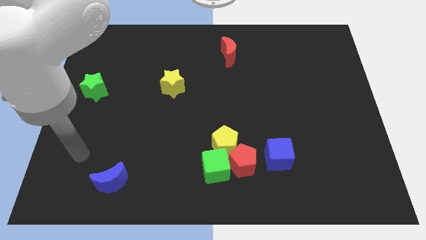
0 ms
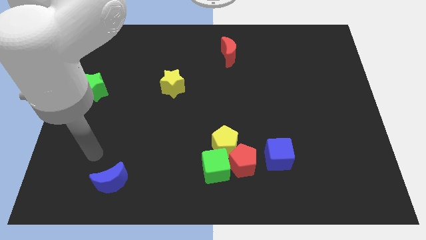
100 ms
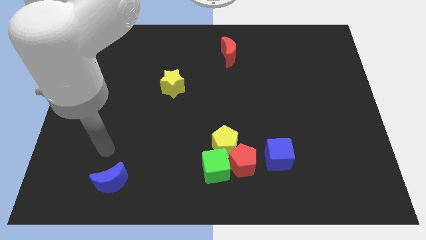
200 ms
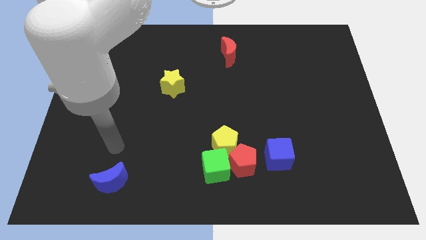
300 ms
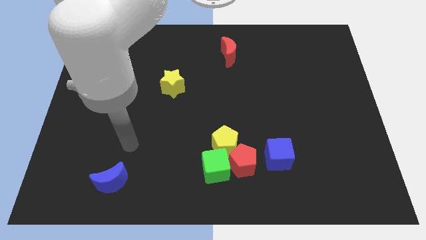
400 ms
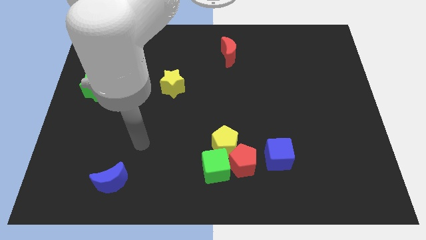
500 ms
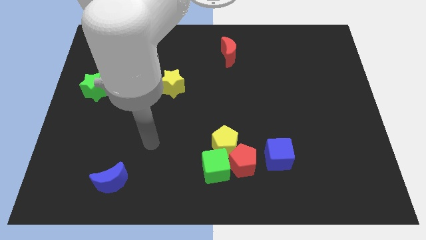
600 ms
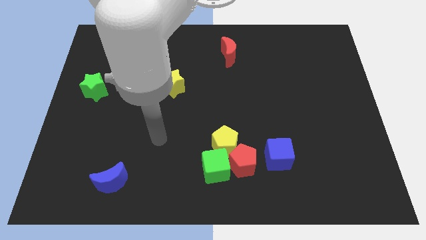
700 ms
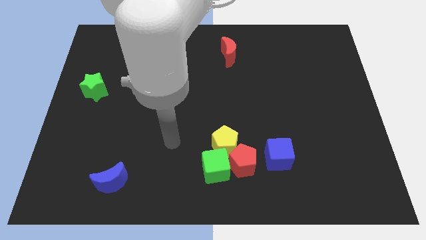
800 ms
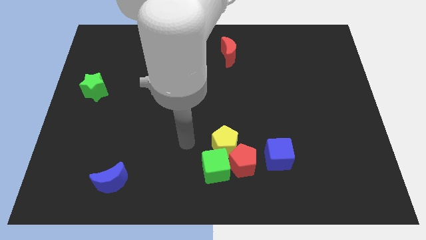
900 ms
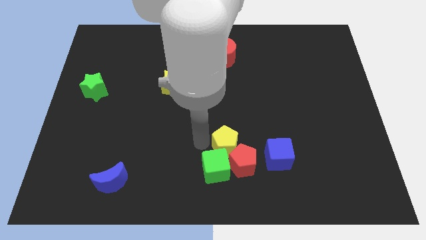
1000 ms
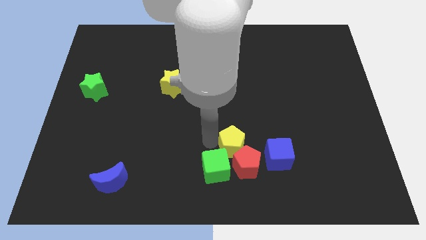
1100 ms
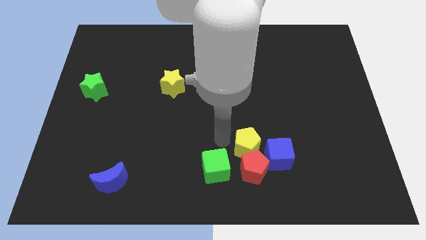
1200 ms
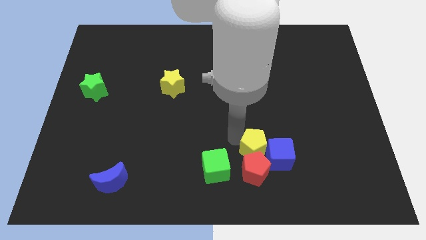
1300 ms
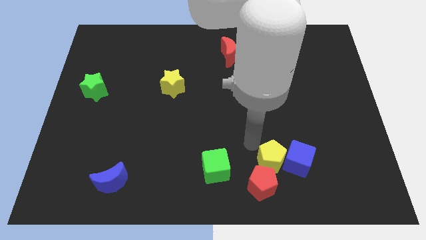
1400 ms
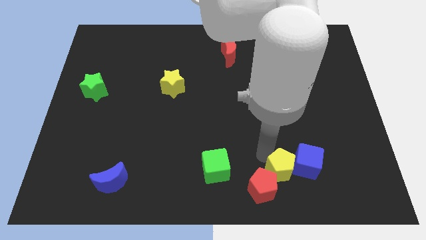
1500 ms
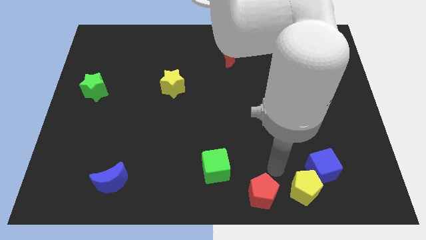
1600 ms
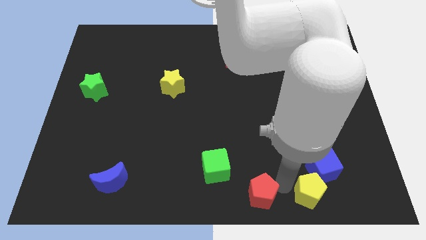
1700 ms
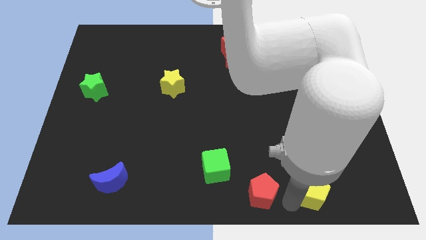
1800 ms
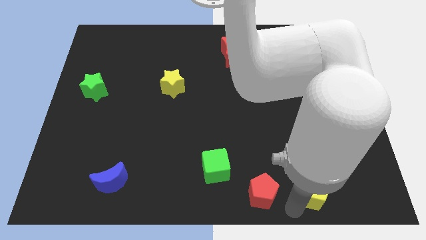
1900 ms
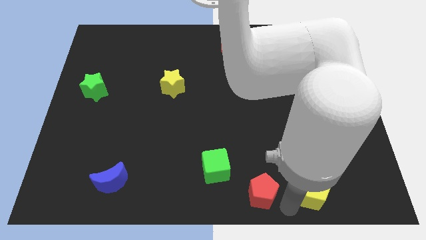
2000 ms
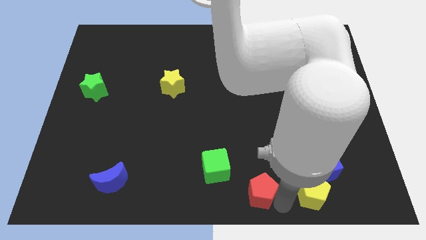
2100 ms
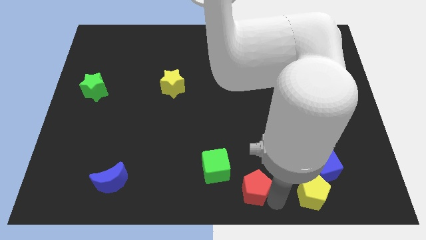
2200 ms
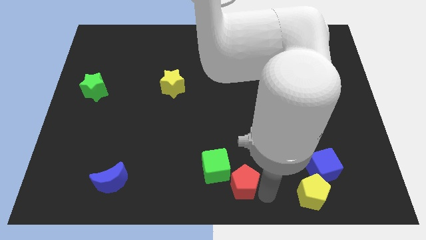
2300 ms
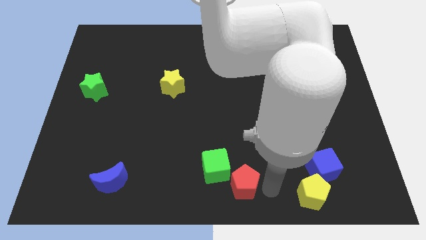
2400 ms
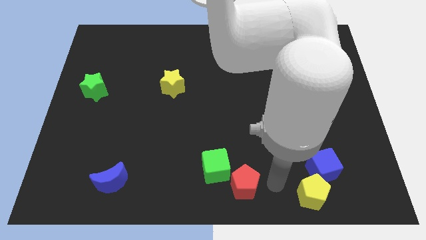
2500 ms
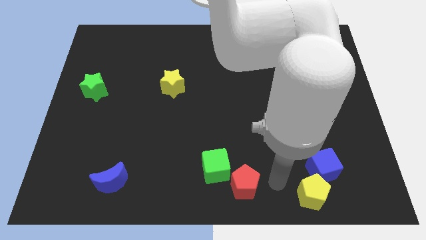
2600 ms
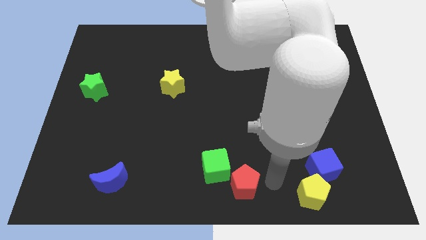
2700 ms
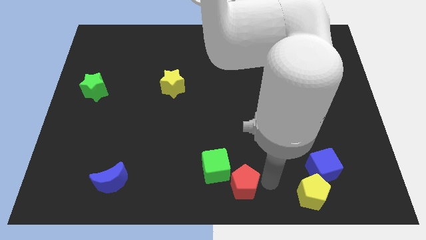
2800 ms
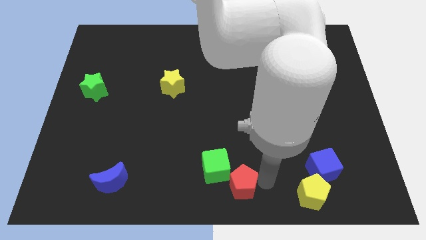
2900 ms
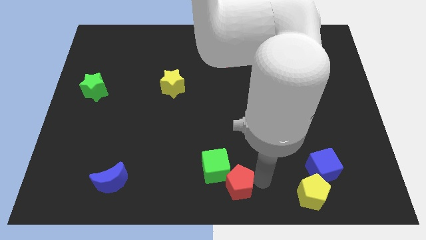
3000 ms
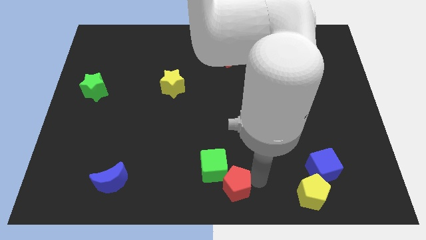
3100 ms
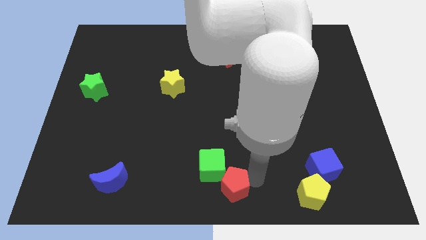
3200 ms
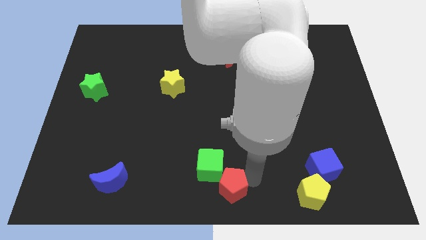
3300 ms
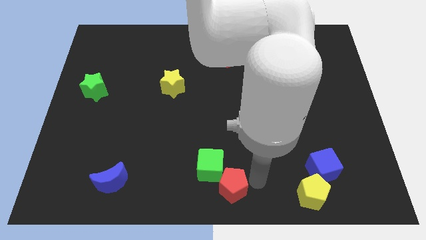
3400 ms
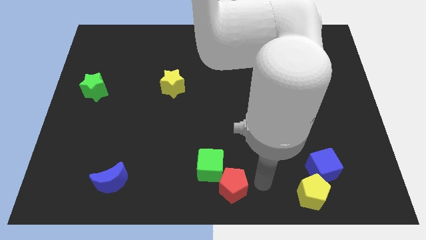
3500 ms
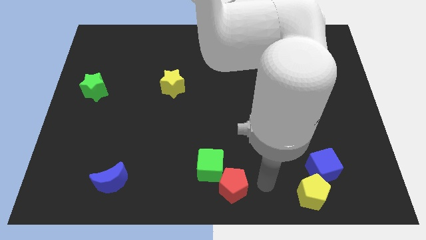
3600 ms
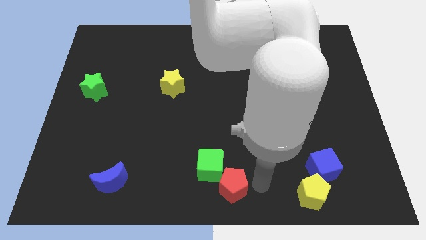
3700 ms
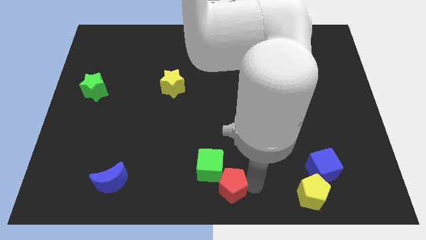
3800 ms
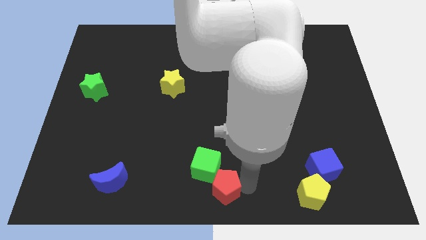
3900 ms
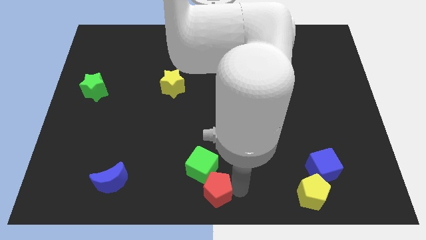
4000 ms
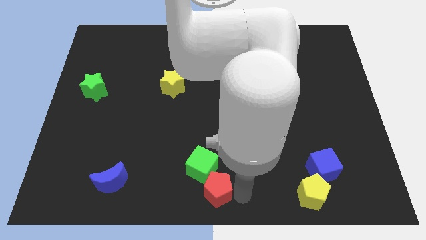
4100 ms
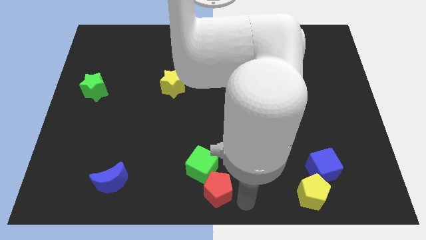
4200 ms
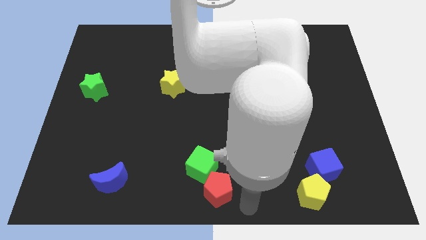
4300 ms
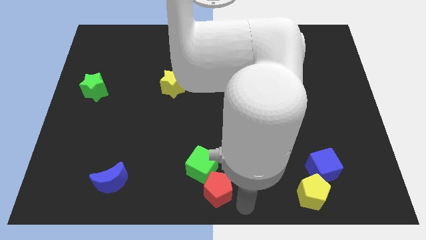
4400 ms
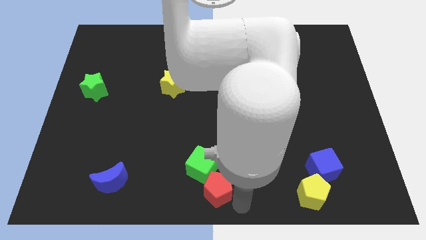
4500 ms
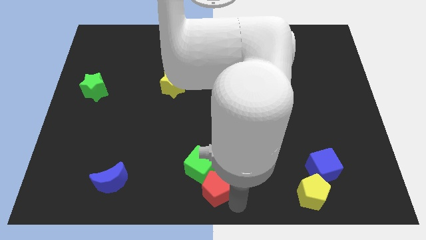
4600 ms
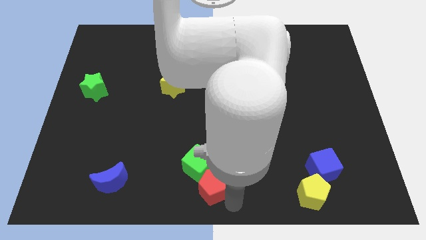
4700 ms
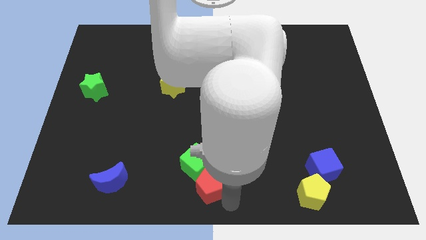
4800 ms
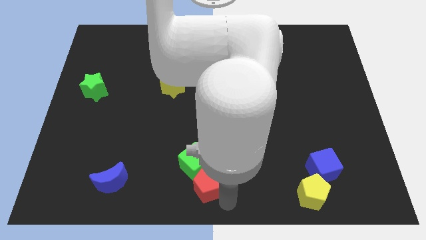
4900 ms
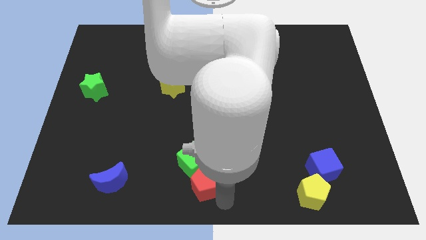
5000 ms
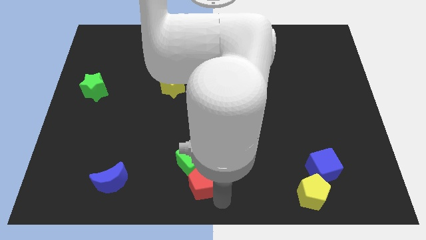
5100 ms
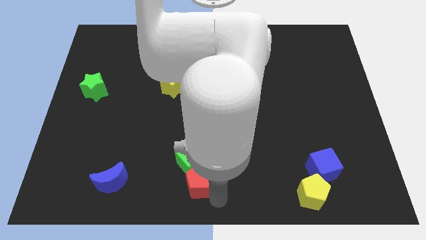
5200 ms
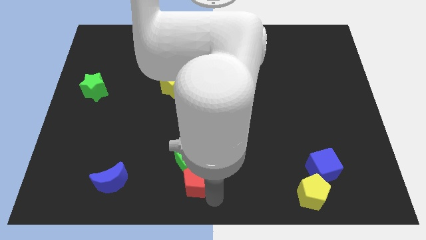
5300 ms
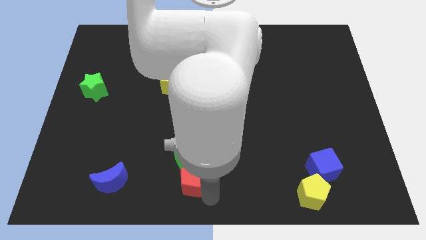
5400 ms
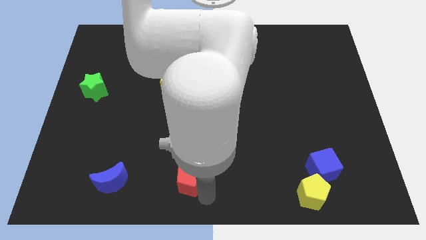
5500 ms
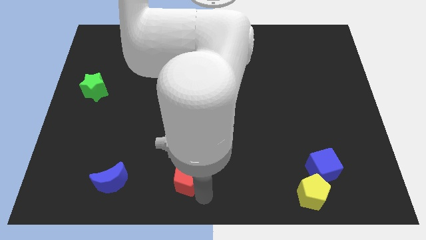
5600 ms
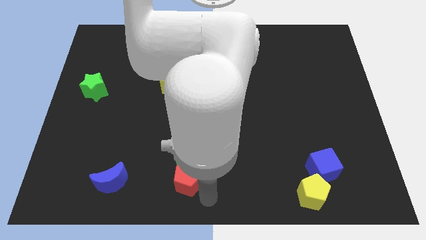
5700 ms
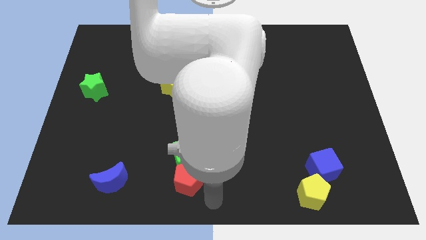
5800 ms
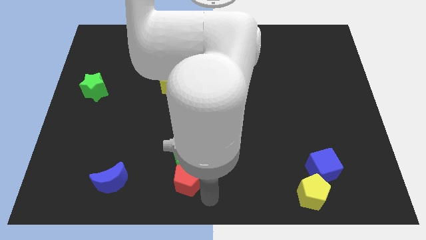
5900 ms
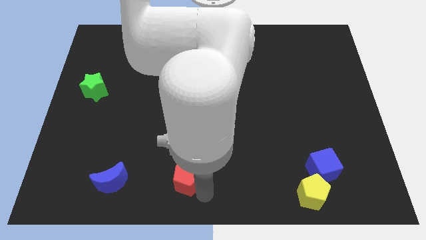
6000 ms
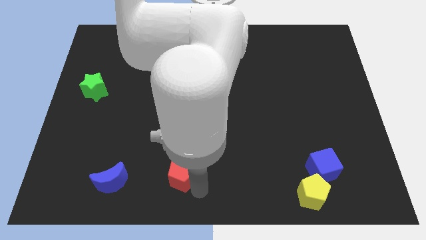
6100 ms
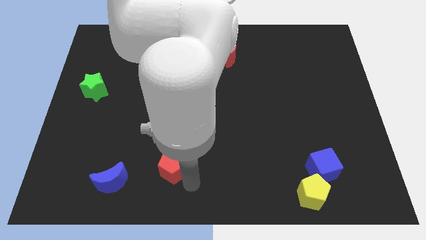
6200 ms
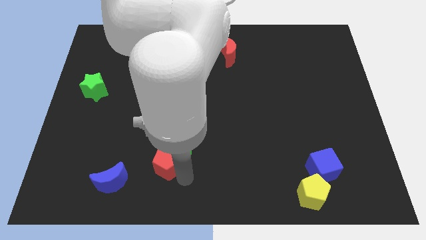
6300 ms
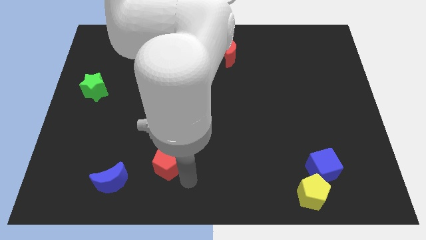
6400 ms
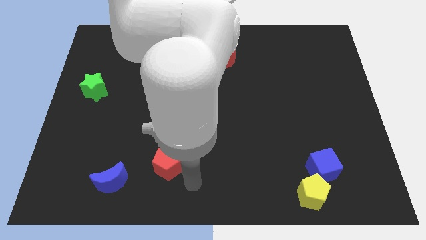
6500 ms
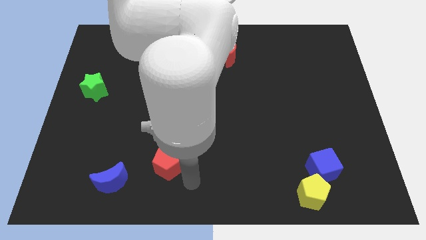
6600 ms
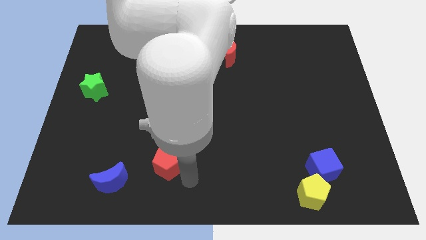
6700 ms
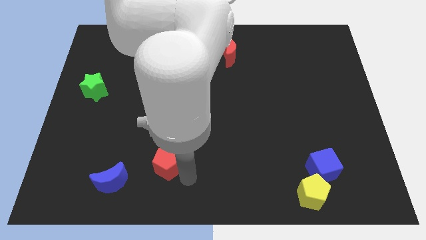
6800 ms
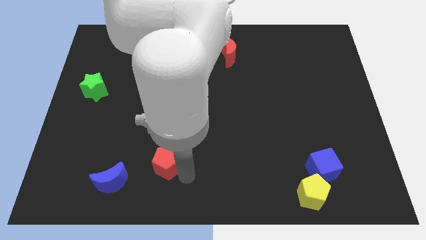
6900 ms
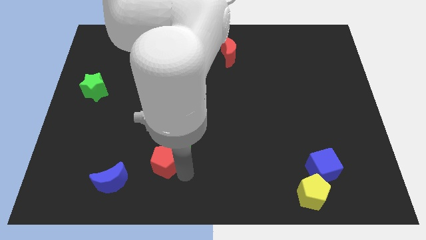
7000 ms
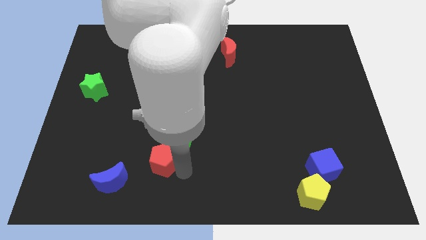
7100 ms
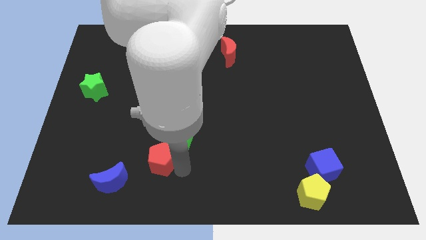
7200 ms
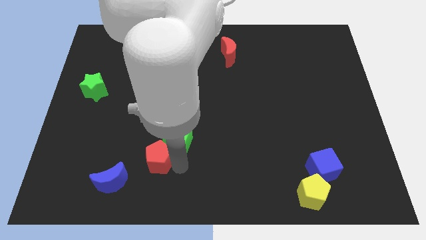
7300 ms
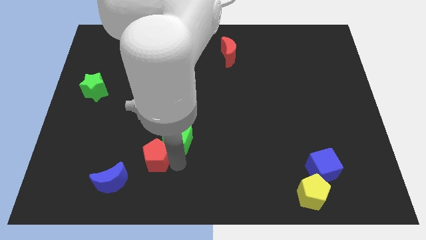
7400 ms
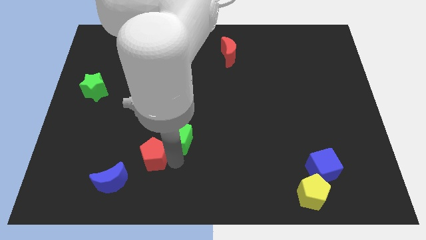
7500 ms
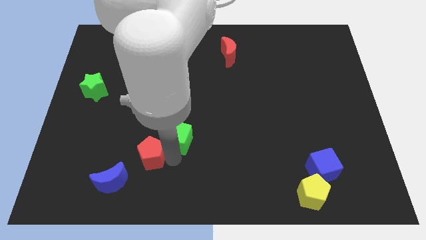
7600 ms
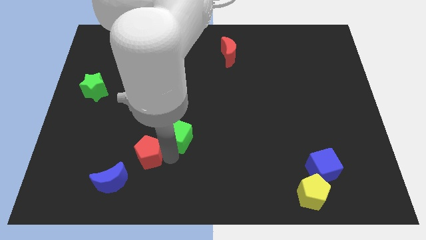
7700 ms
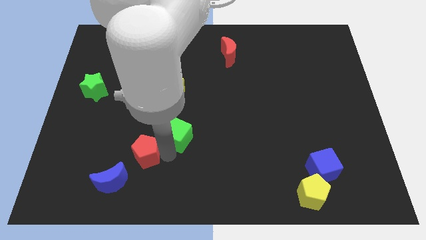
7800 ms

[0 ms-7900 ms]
push the red pentagon left
